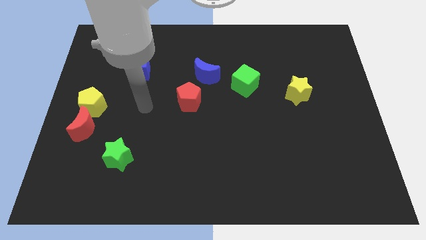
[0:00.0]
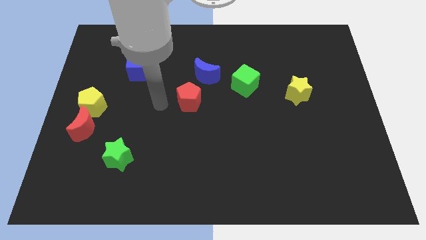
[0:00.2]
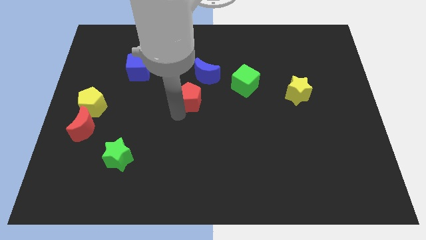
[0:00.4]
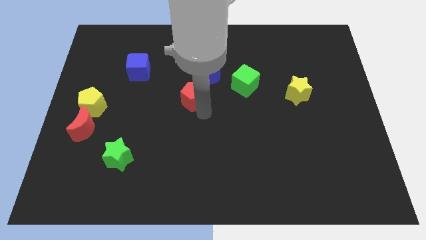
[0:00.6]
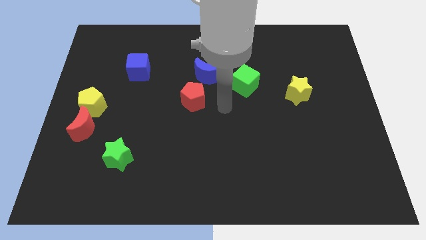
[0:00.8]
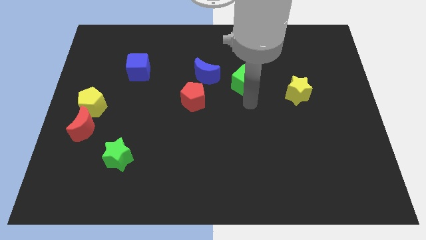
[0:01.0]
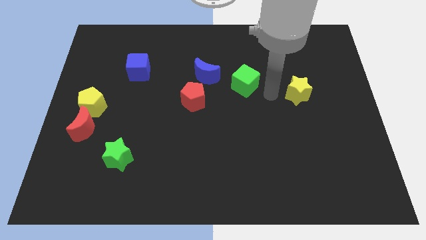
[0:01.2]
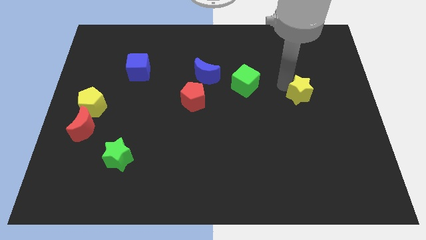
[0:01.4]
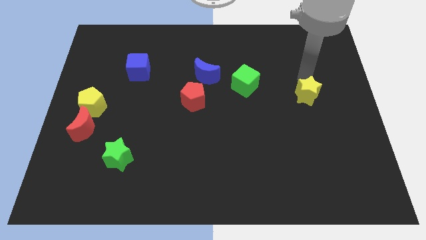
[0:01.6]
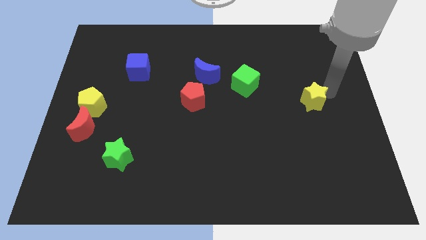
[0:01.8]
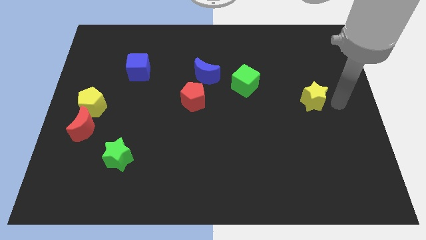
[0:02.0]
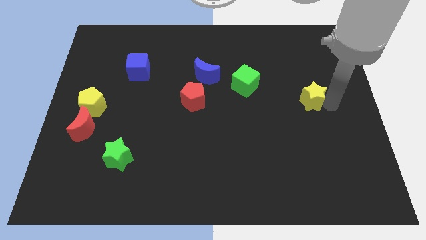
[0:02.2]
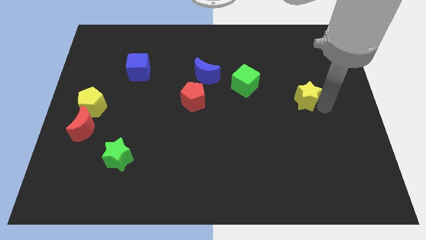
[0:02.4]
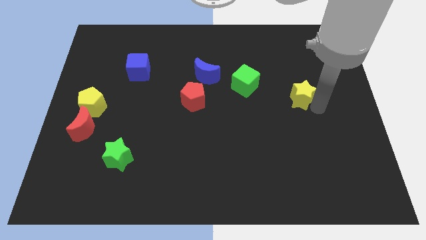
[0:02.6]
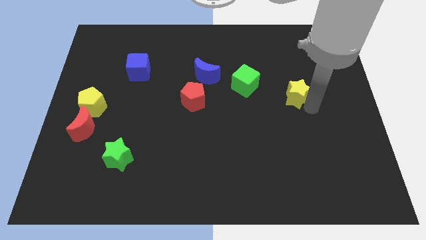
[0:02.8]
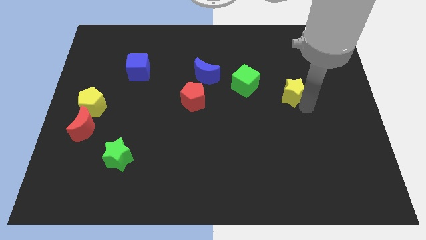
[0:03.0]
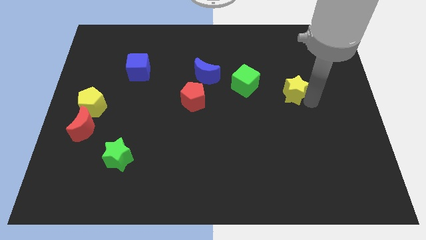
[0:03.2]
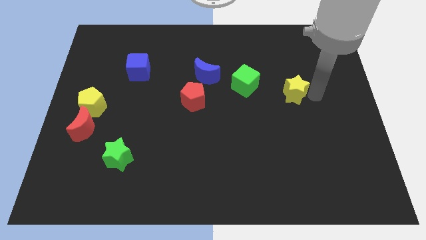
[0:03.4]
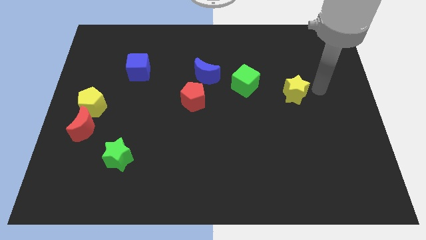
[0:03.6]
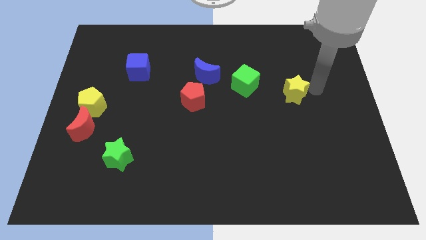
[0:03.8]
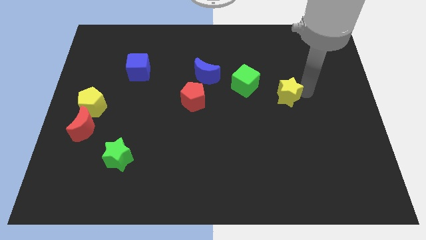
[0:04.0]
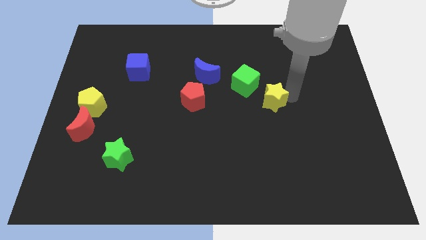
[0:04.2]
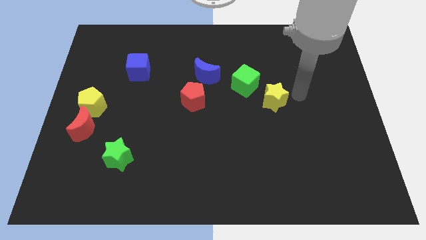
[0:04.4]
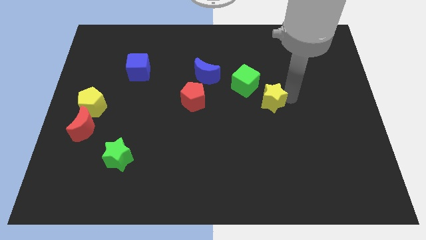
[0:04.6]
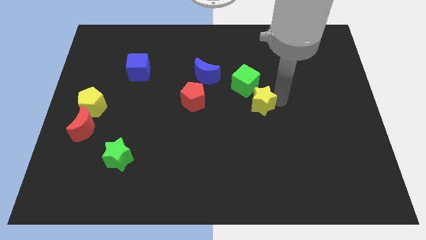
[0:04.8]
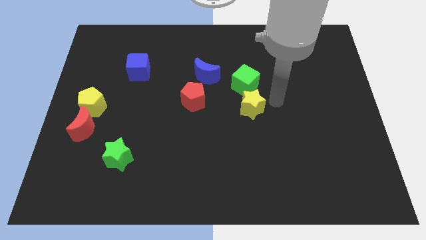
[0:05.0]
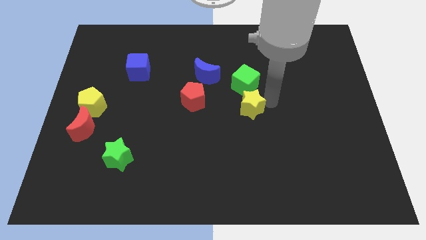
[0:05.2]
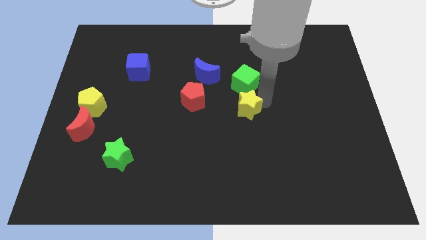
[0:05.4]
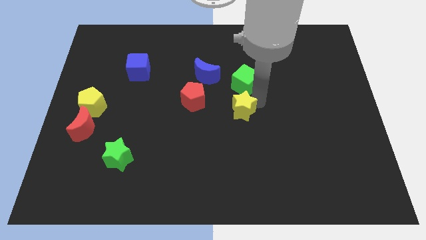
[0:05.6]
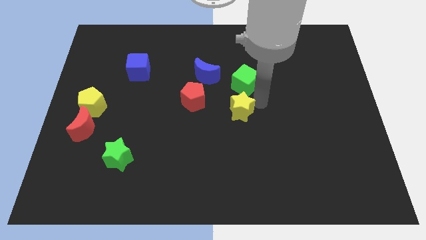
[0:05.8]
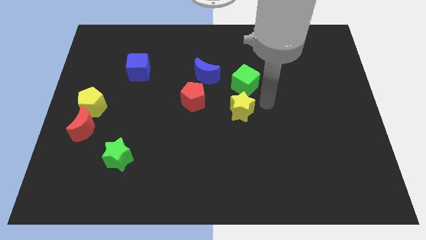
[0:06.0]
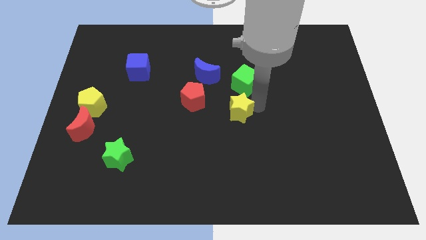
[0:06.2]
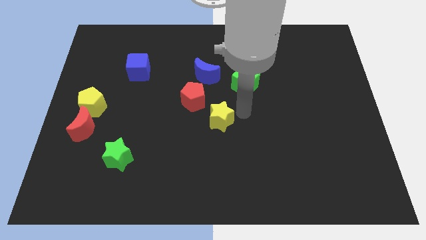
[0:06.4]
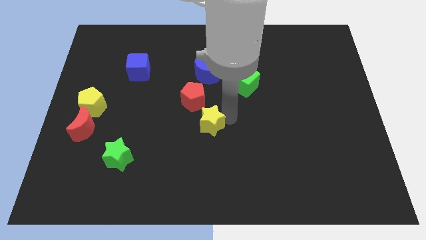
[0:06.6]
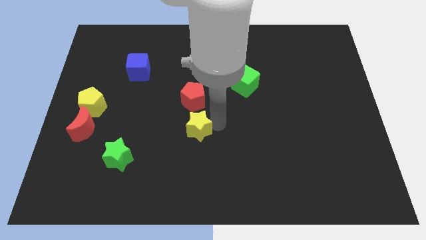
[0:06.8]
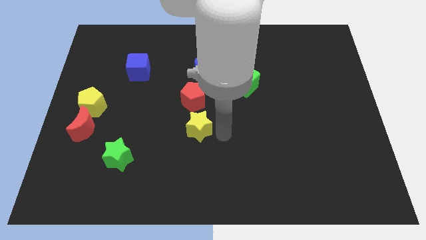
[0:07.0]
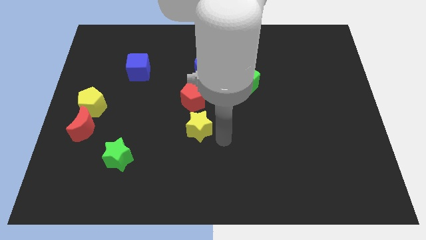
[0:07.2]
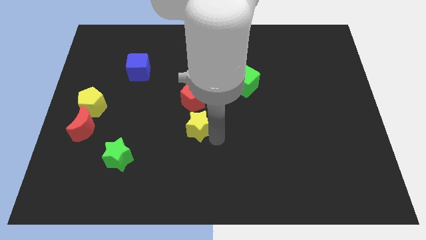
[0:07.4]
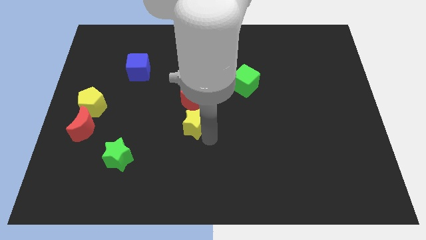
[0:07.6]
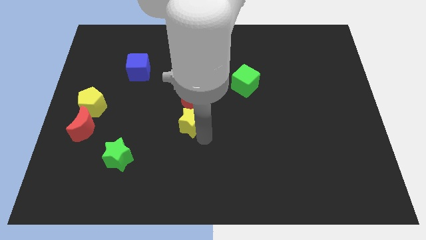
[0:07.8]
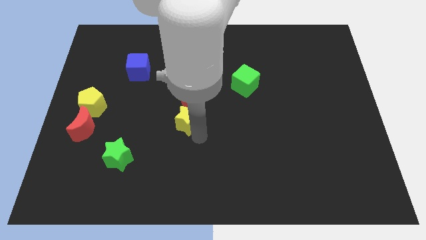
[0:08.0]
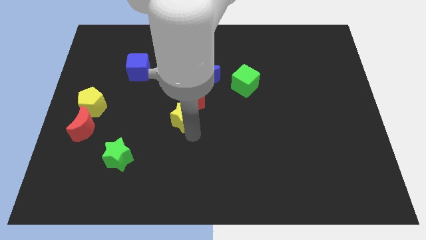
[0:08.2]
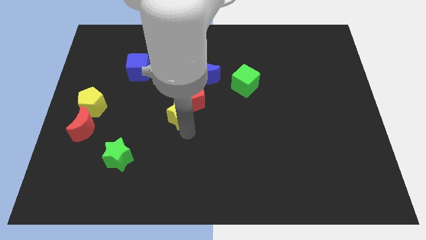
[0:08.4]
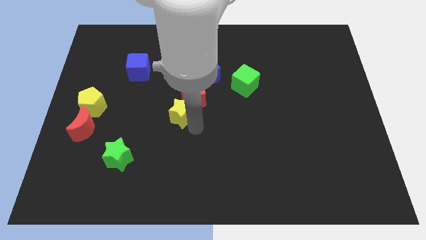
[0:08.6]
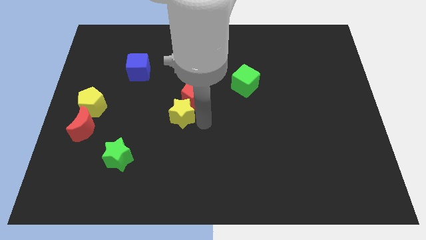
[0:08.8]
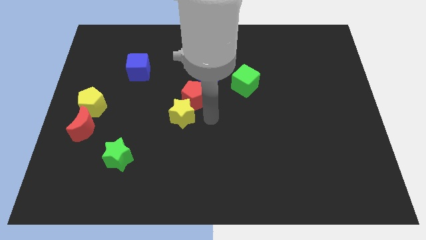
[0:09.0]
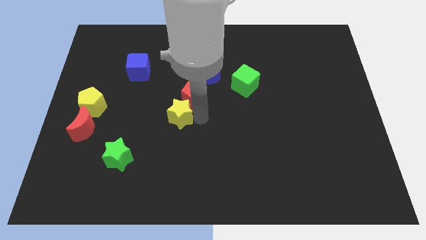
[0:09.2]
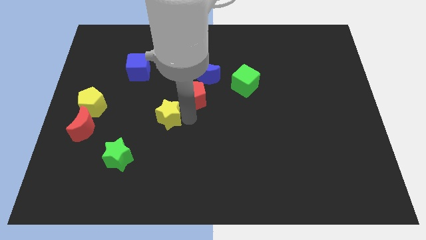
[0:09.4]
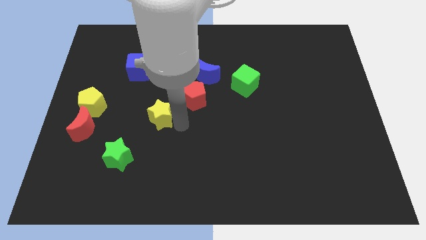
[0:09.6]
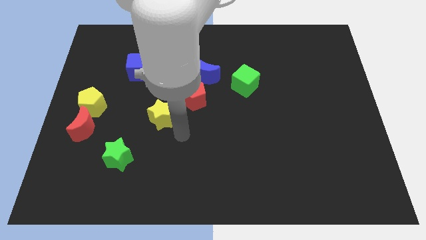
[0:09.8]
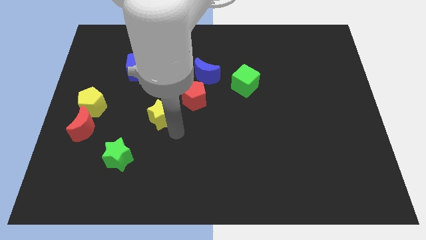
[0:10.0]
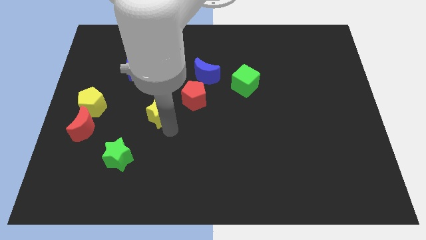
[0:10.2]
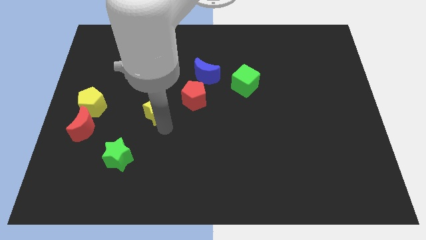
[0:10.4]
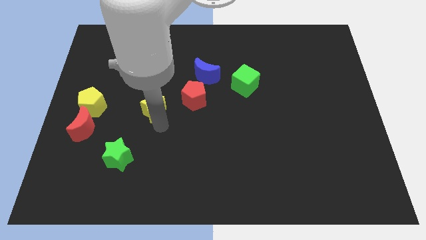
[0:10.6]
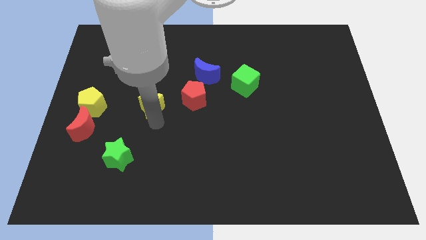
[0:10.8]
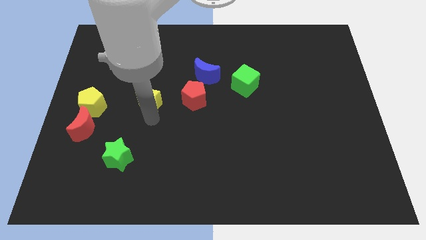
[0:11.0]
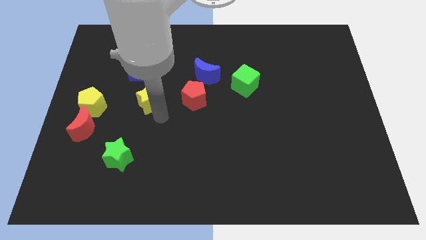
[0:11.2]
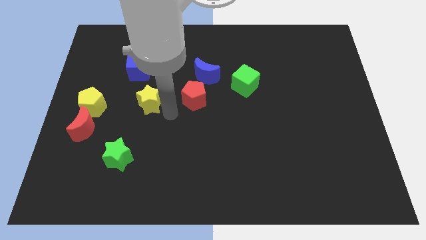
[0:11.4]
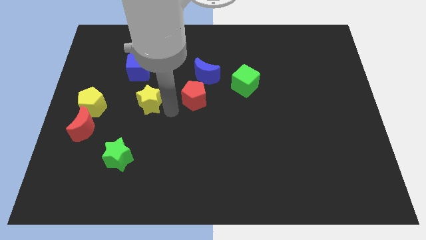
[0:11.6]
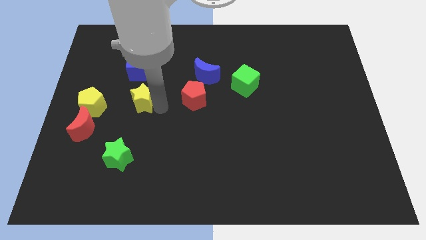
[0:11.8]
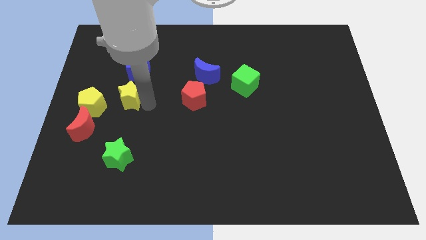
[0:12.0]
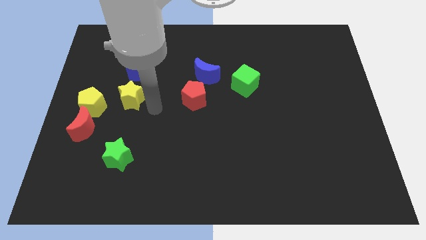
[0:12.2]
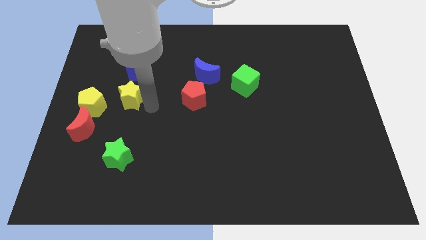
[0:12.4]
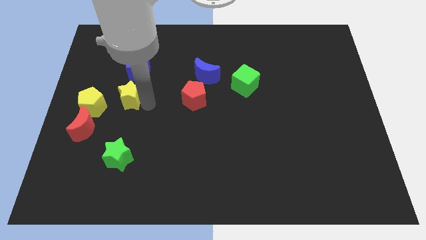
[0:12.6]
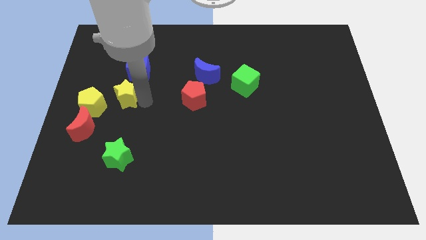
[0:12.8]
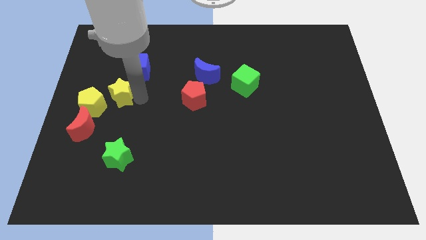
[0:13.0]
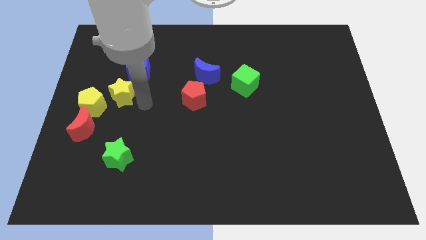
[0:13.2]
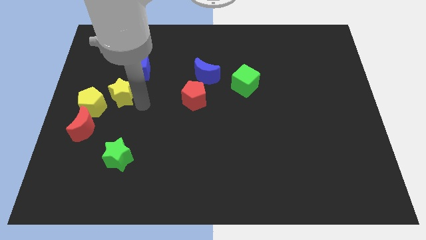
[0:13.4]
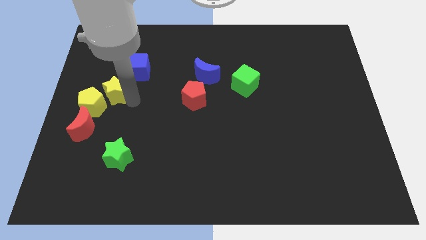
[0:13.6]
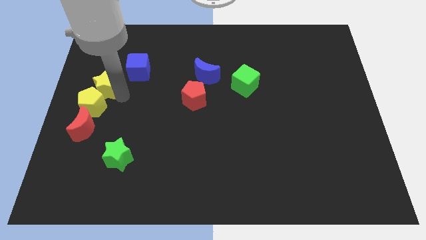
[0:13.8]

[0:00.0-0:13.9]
slide the yellow star to the left side of the board

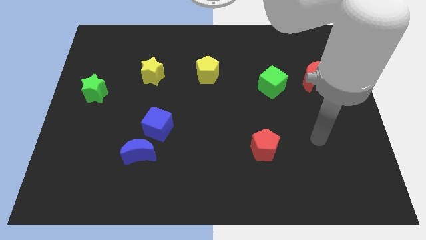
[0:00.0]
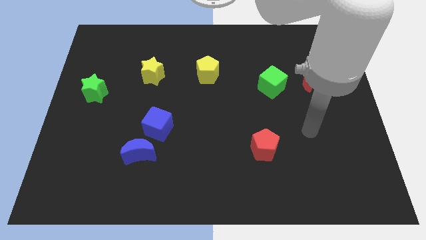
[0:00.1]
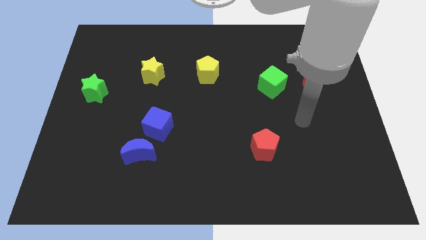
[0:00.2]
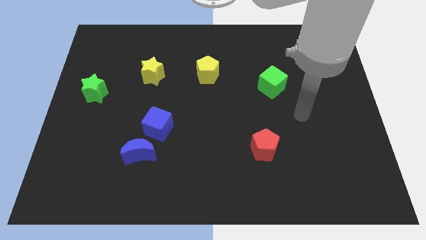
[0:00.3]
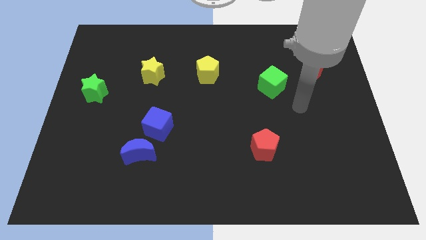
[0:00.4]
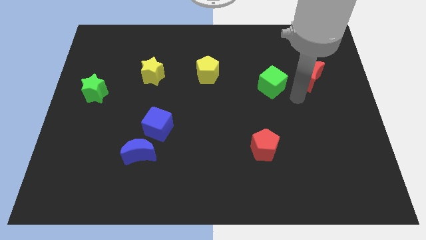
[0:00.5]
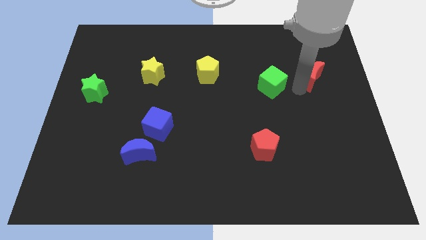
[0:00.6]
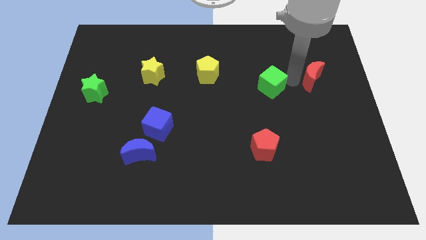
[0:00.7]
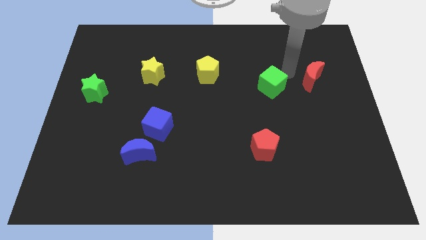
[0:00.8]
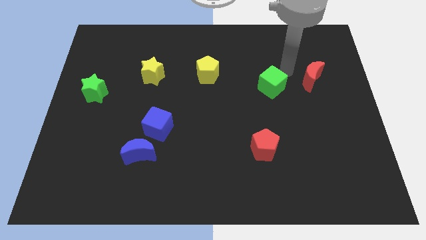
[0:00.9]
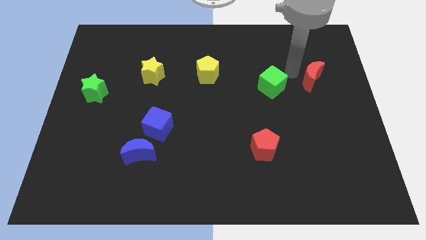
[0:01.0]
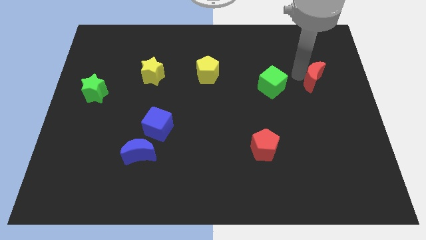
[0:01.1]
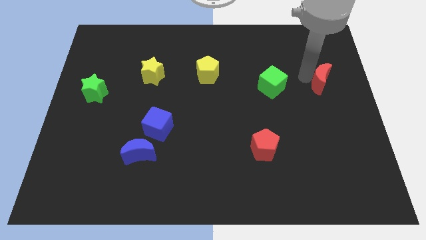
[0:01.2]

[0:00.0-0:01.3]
move the red moon to the right side
